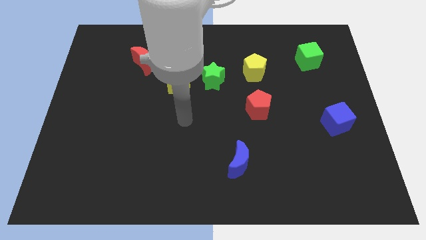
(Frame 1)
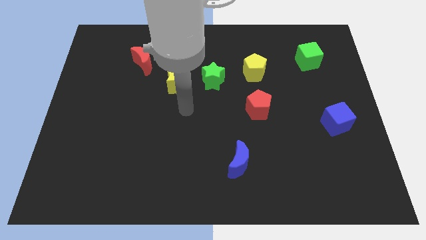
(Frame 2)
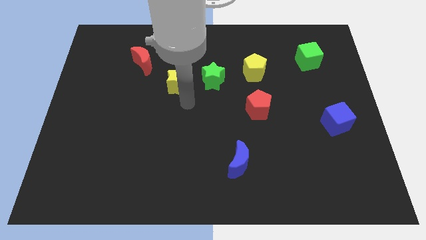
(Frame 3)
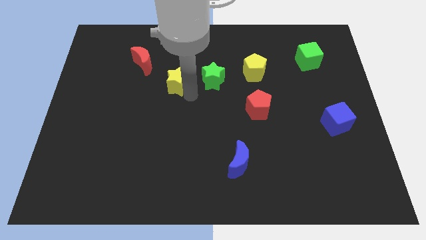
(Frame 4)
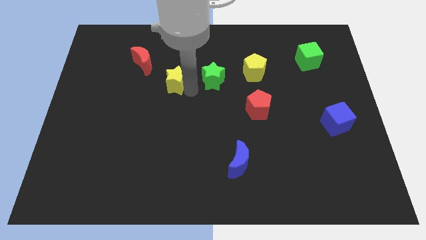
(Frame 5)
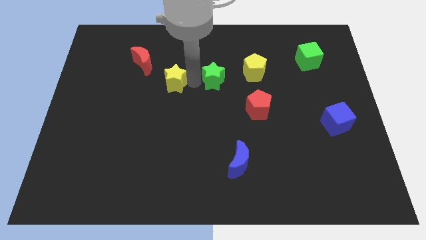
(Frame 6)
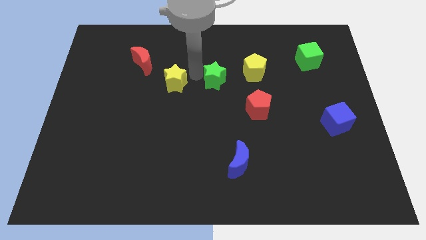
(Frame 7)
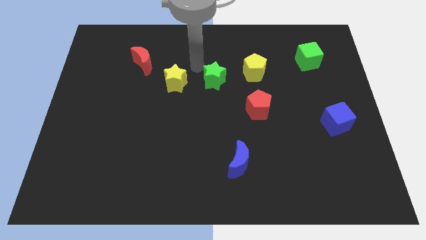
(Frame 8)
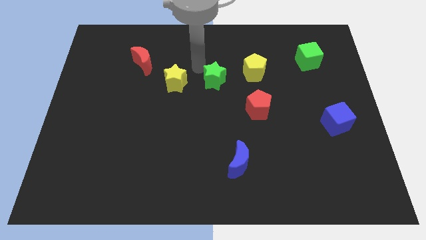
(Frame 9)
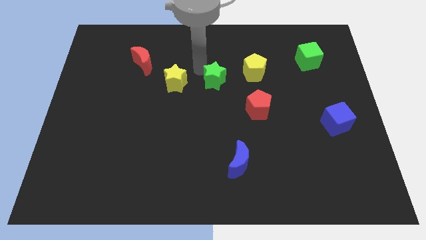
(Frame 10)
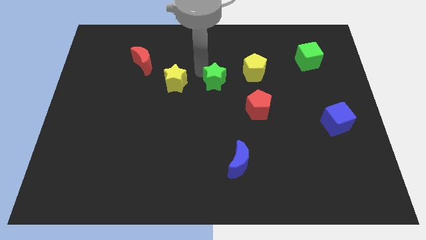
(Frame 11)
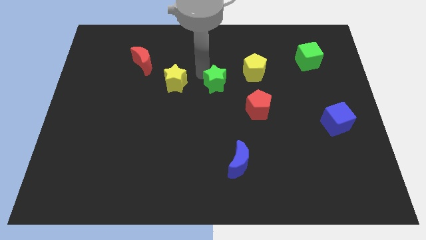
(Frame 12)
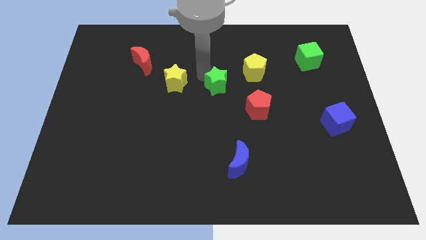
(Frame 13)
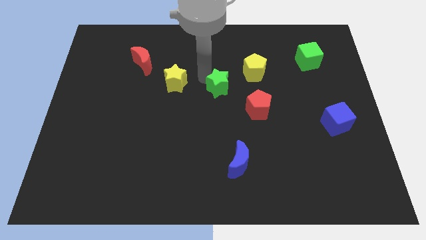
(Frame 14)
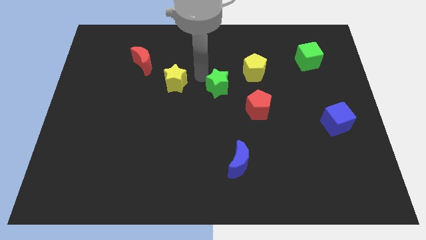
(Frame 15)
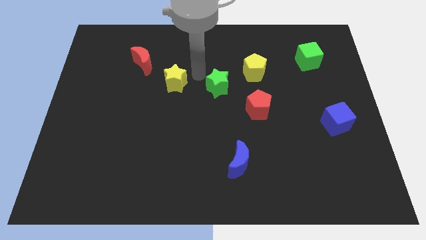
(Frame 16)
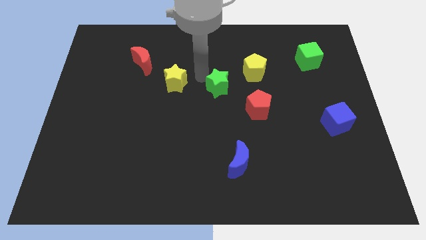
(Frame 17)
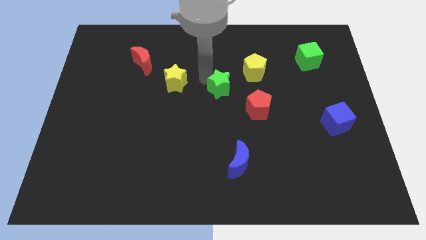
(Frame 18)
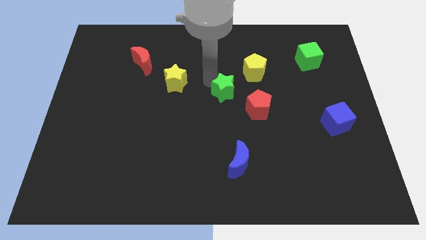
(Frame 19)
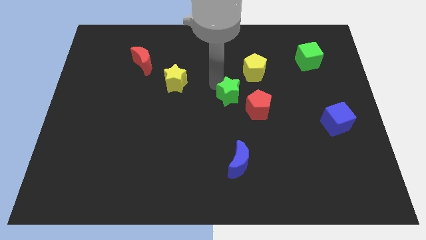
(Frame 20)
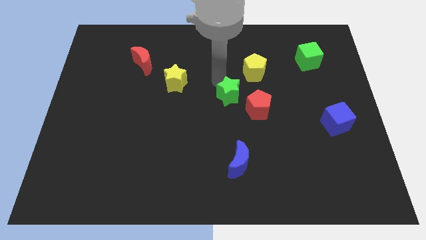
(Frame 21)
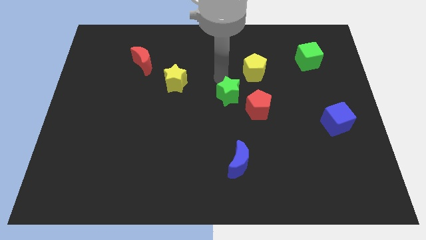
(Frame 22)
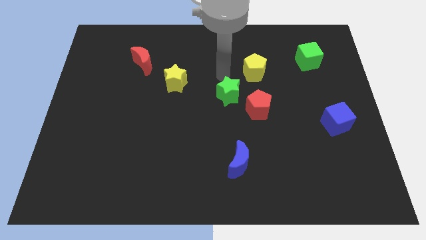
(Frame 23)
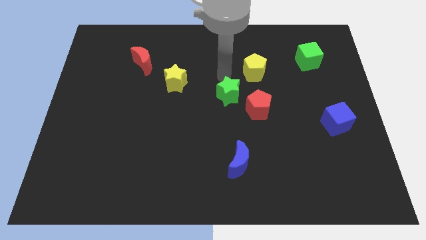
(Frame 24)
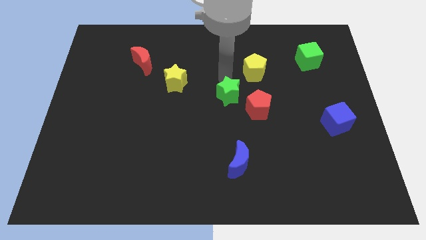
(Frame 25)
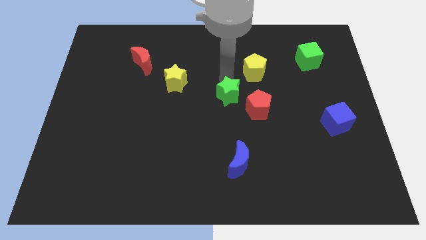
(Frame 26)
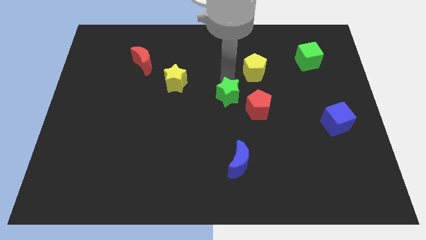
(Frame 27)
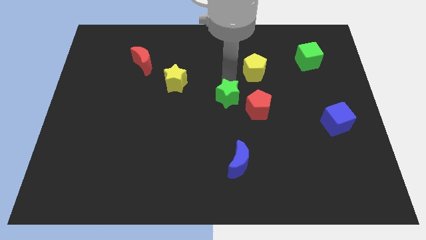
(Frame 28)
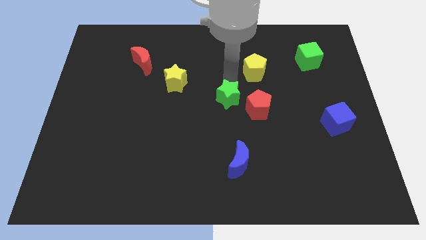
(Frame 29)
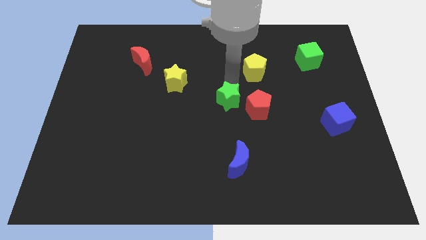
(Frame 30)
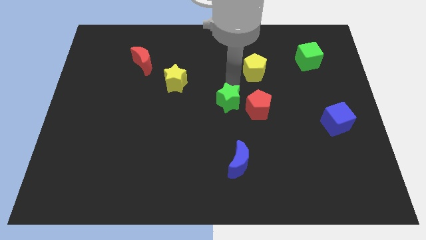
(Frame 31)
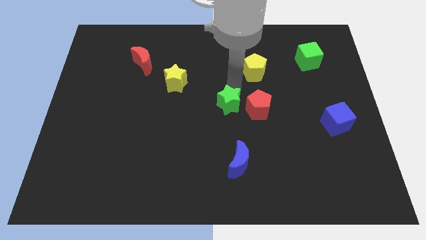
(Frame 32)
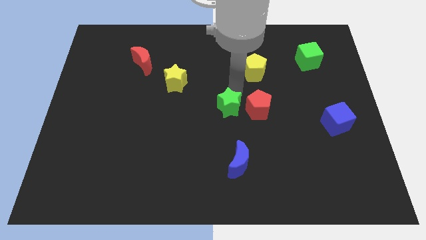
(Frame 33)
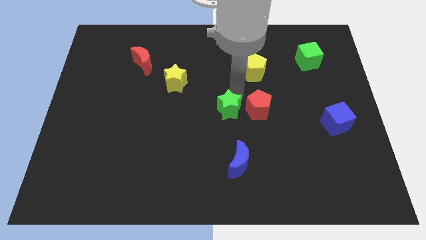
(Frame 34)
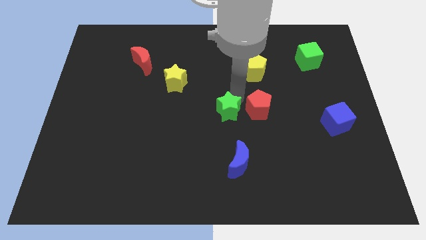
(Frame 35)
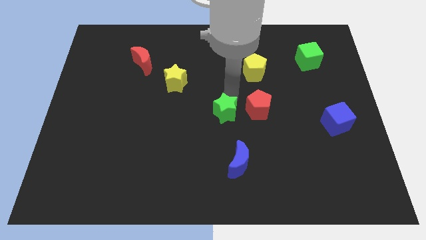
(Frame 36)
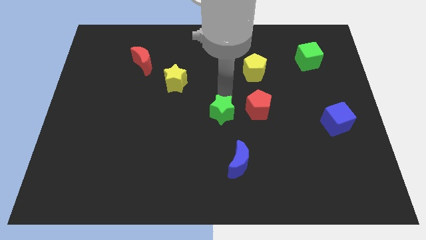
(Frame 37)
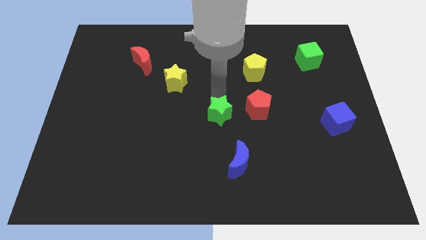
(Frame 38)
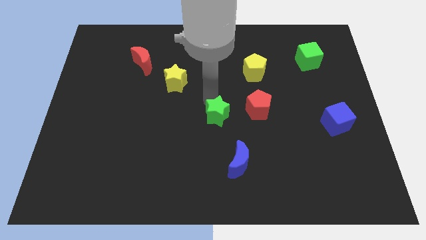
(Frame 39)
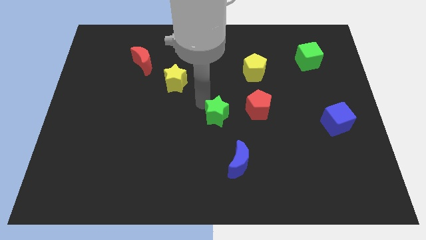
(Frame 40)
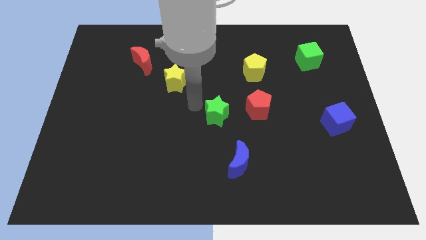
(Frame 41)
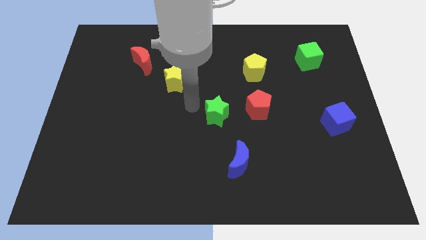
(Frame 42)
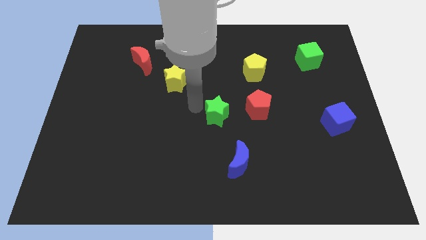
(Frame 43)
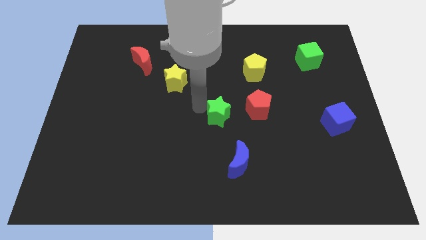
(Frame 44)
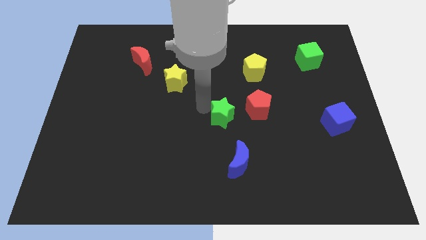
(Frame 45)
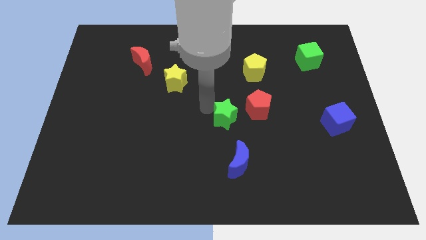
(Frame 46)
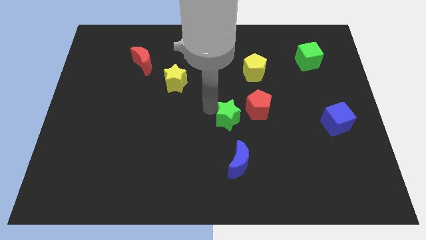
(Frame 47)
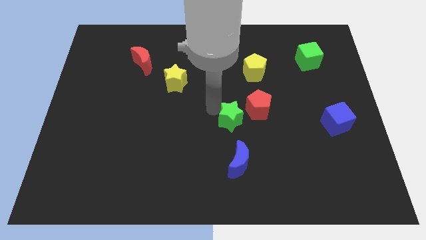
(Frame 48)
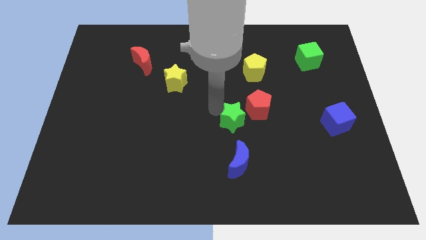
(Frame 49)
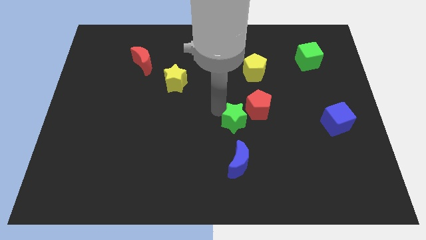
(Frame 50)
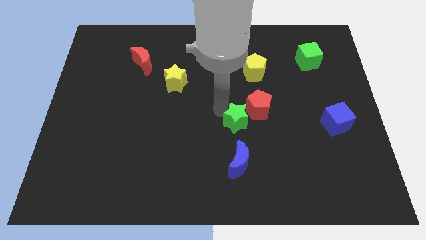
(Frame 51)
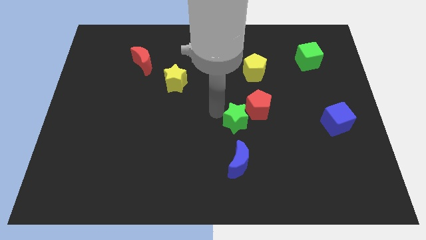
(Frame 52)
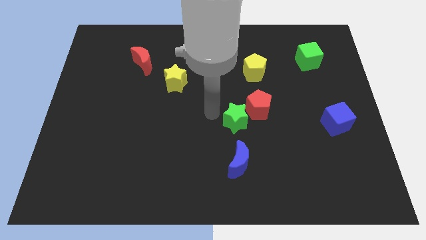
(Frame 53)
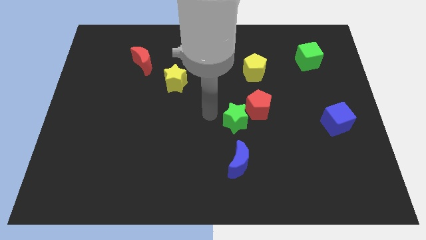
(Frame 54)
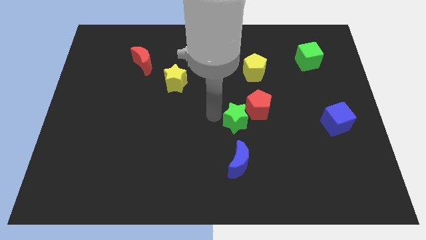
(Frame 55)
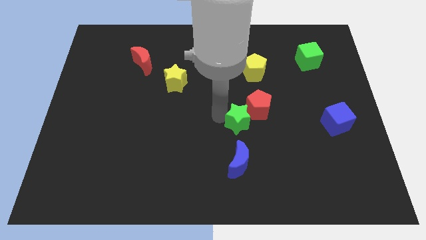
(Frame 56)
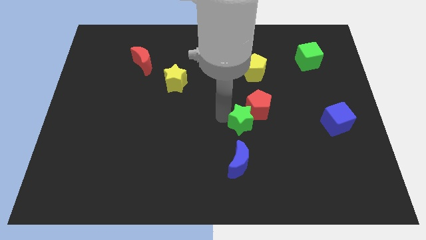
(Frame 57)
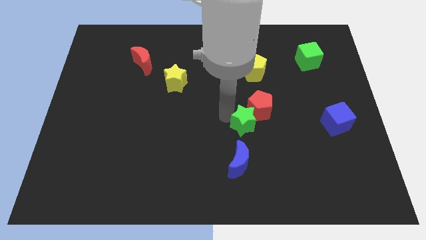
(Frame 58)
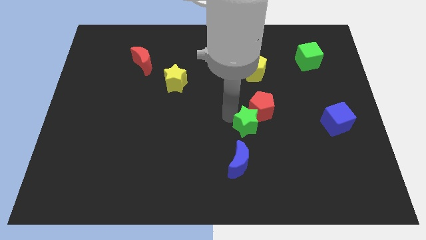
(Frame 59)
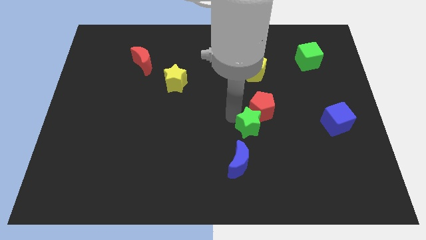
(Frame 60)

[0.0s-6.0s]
put the green star diagonally up and to the right of the blue moon

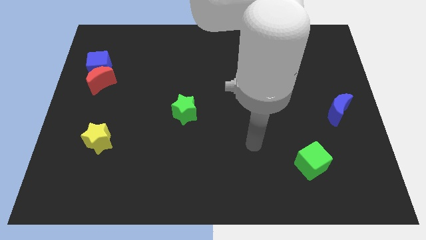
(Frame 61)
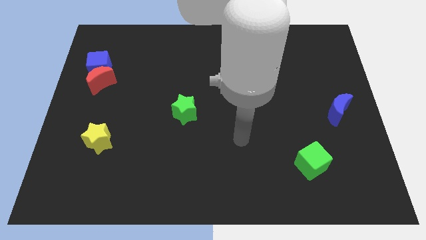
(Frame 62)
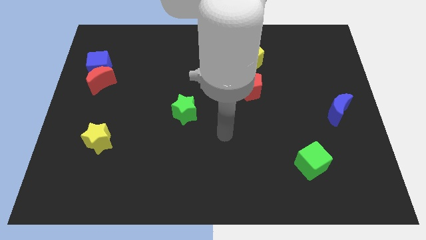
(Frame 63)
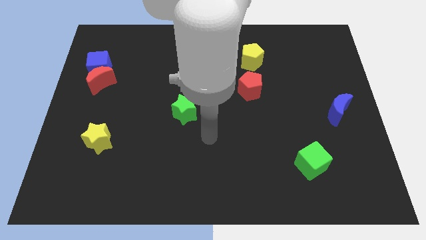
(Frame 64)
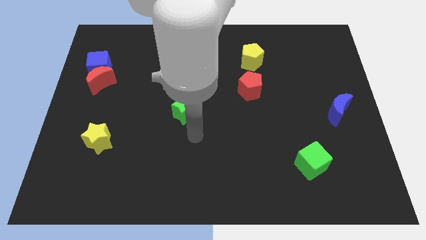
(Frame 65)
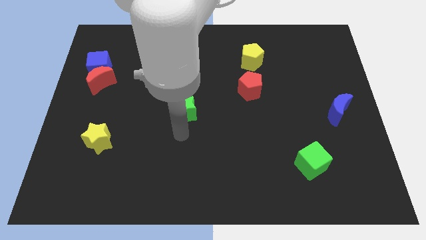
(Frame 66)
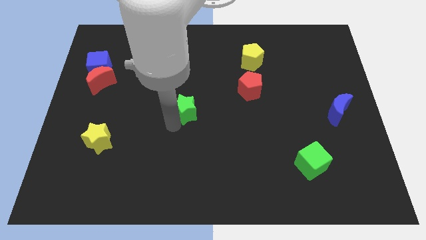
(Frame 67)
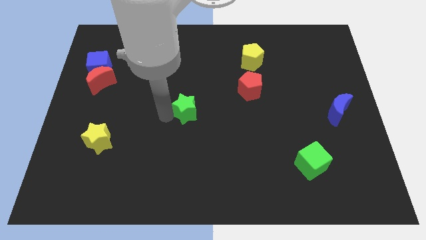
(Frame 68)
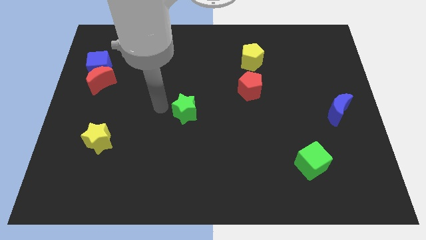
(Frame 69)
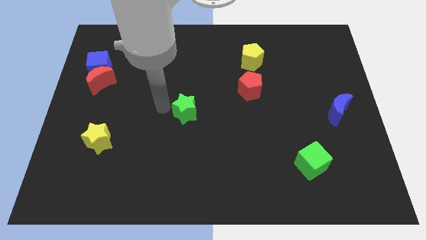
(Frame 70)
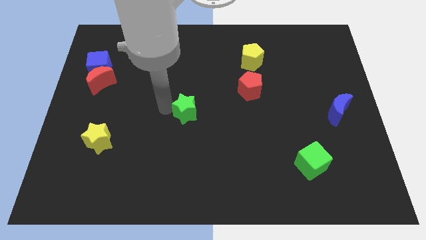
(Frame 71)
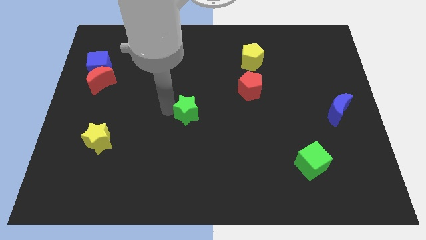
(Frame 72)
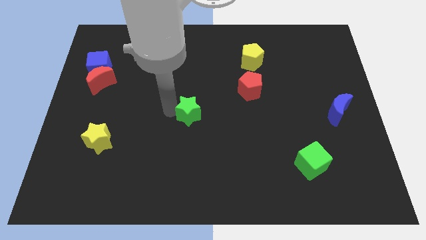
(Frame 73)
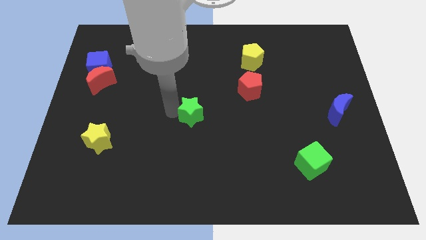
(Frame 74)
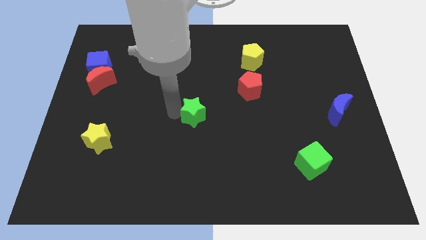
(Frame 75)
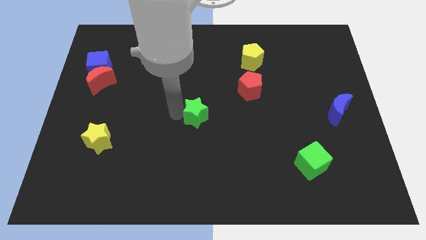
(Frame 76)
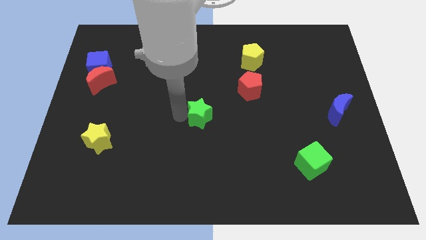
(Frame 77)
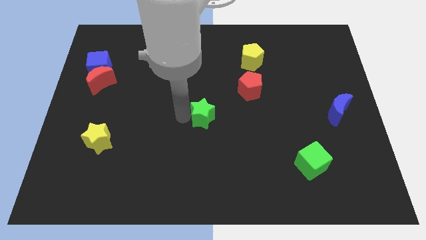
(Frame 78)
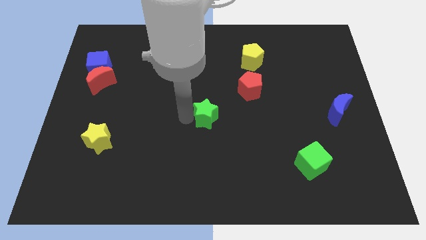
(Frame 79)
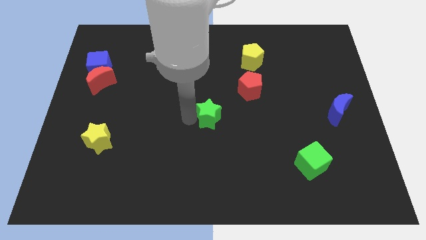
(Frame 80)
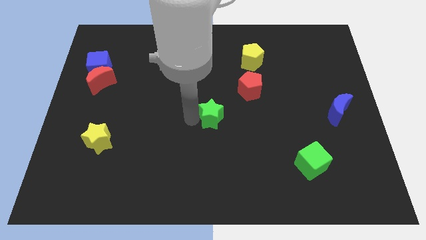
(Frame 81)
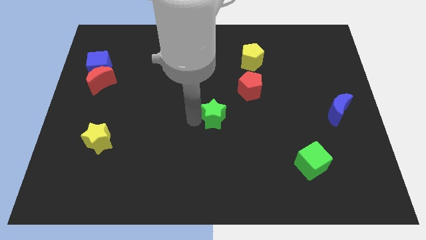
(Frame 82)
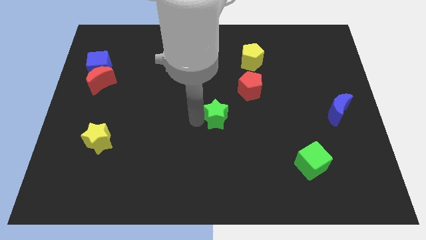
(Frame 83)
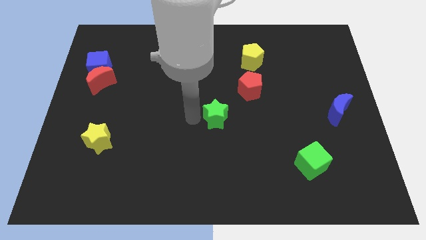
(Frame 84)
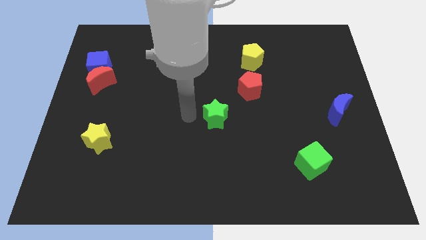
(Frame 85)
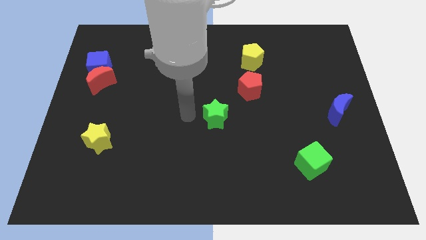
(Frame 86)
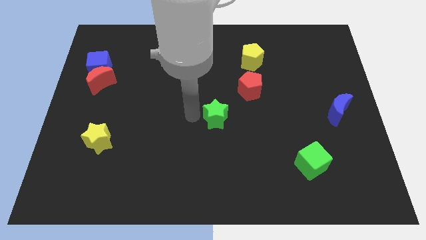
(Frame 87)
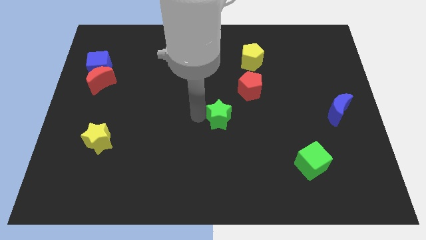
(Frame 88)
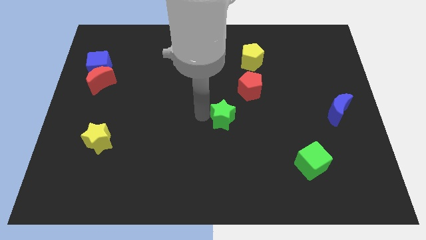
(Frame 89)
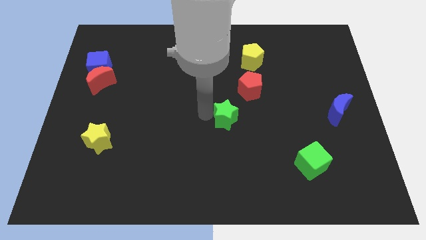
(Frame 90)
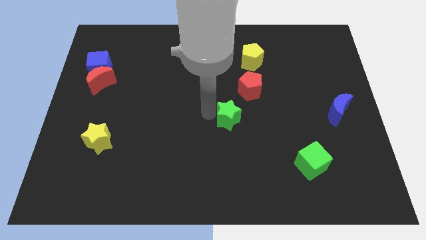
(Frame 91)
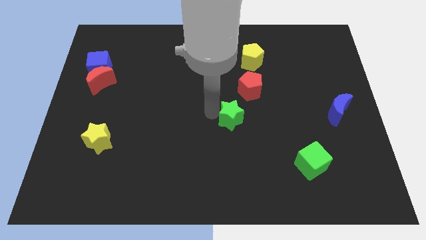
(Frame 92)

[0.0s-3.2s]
put the green star below the red pentagon
